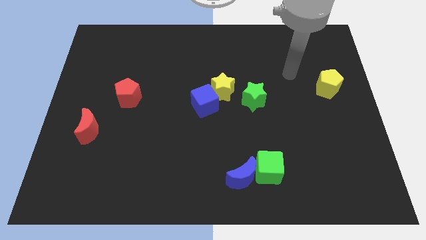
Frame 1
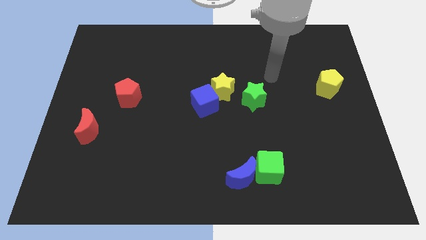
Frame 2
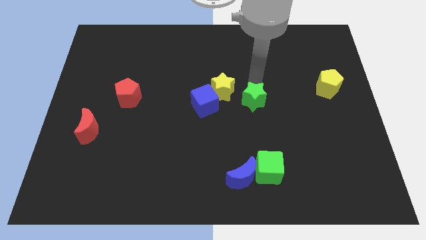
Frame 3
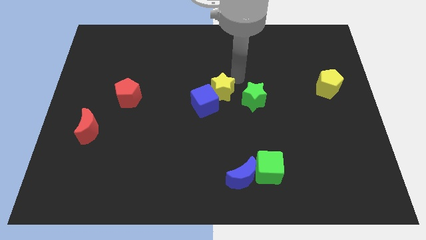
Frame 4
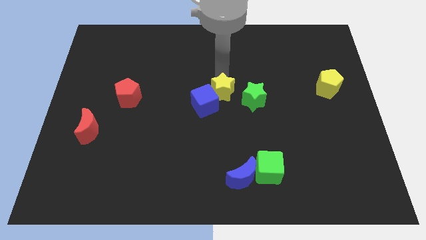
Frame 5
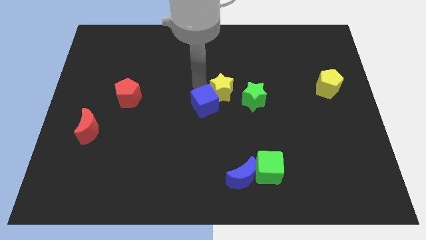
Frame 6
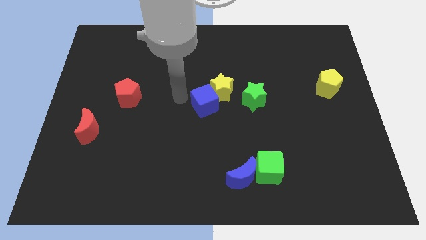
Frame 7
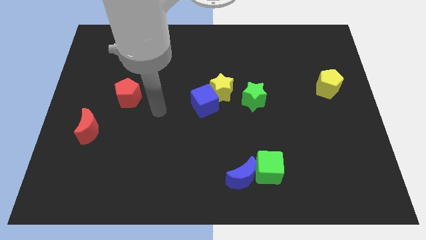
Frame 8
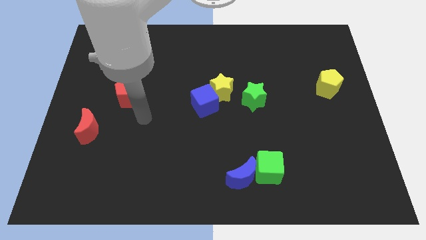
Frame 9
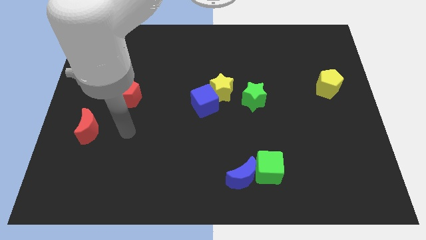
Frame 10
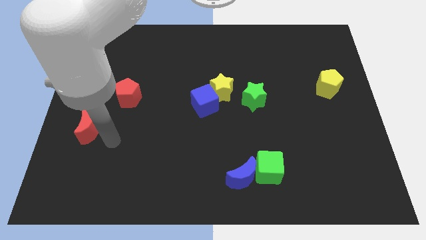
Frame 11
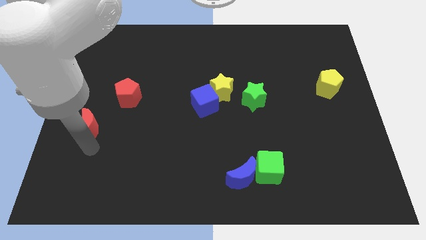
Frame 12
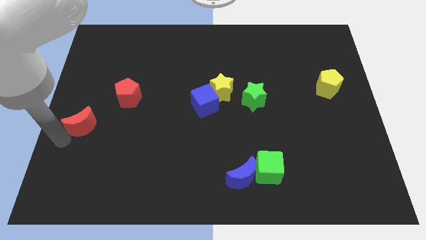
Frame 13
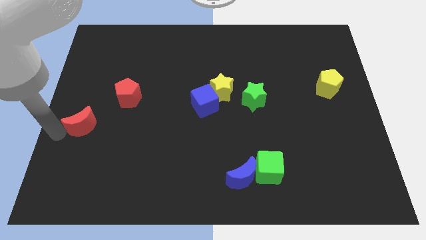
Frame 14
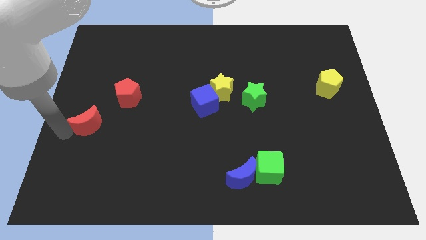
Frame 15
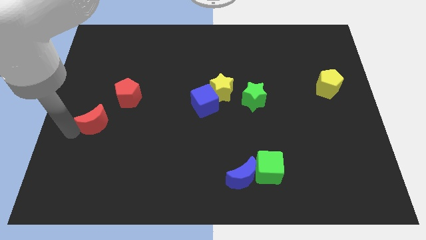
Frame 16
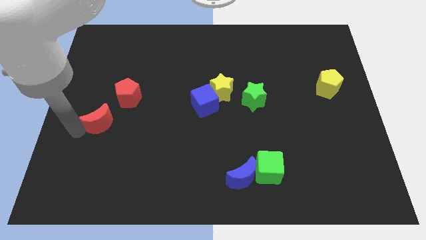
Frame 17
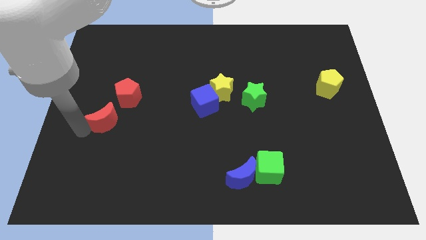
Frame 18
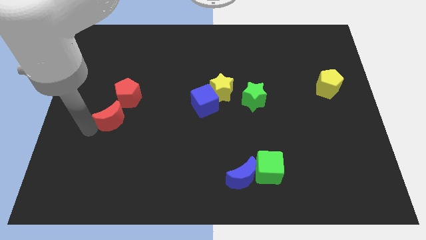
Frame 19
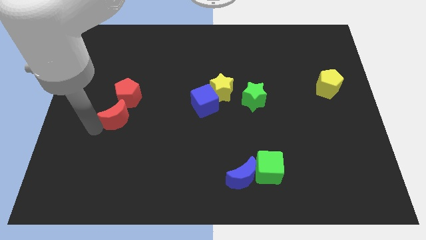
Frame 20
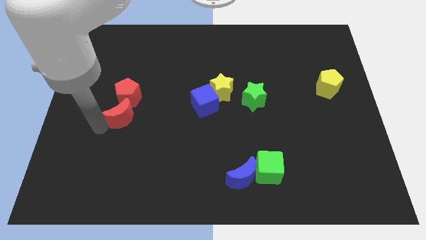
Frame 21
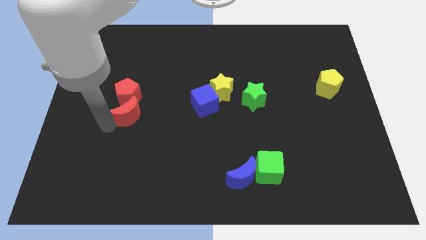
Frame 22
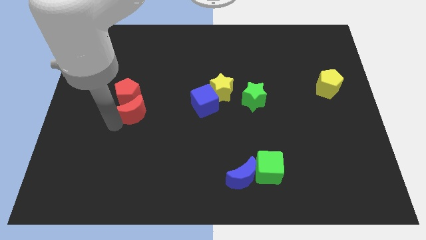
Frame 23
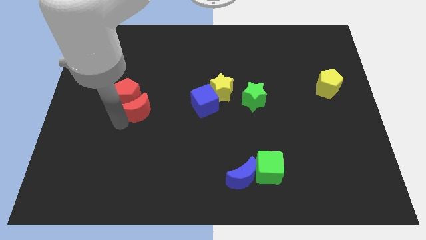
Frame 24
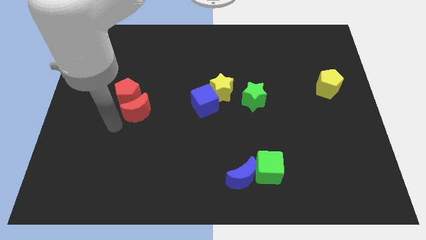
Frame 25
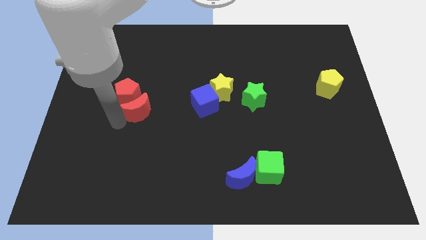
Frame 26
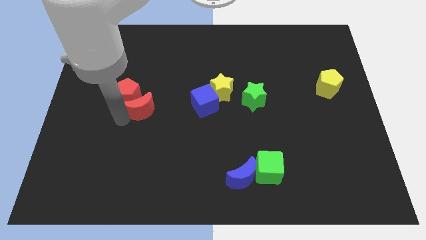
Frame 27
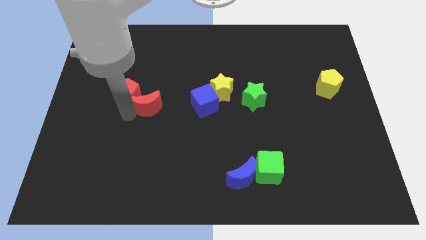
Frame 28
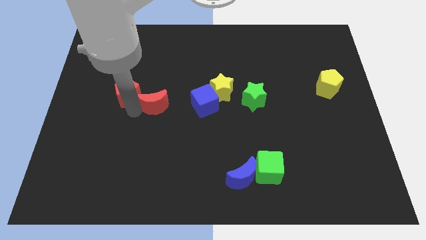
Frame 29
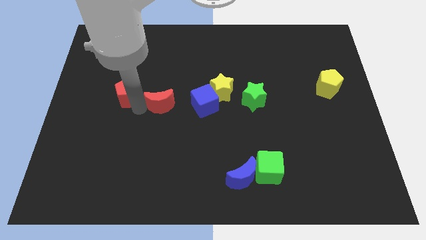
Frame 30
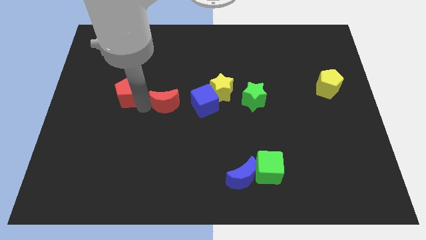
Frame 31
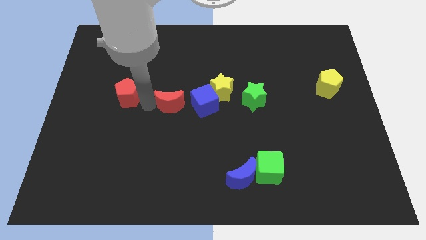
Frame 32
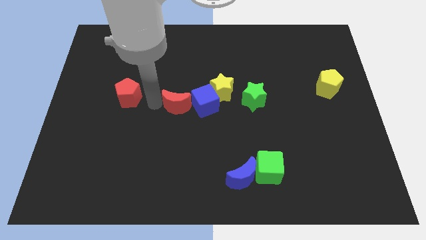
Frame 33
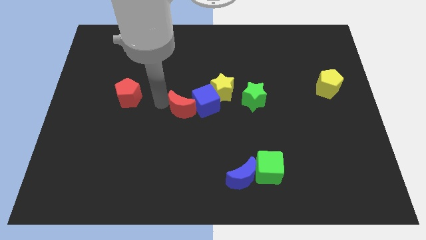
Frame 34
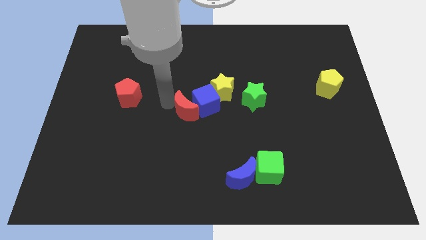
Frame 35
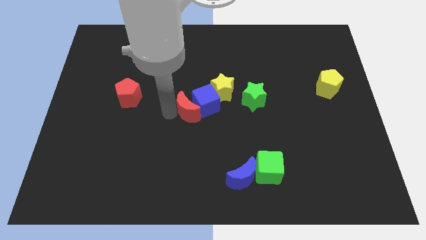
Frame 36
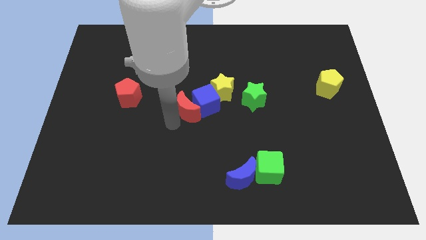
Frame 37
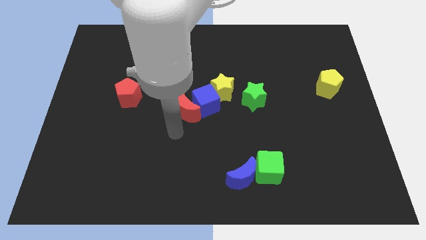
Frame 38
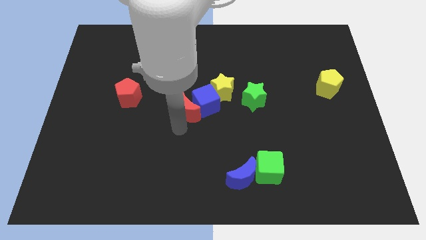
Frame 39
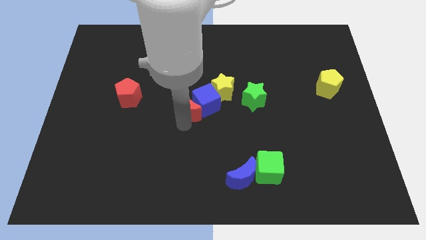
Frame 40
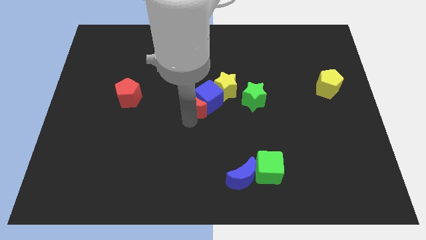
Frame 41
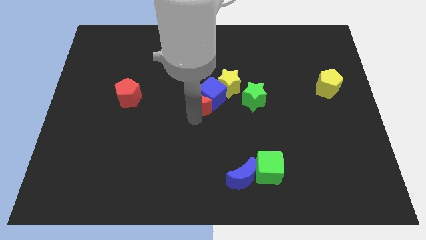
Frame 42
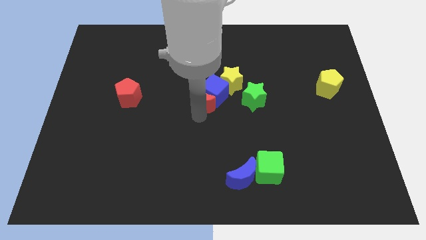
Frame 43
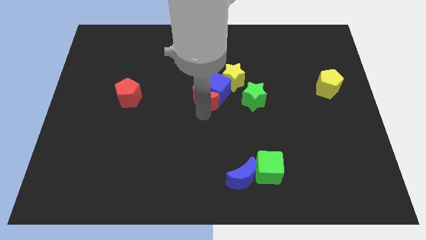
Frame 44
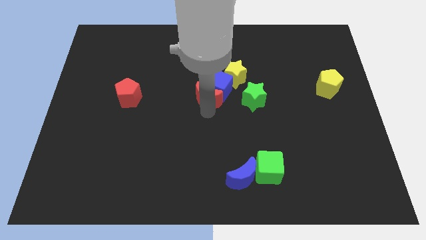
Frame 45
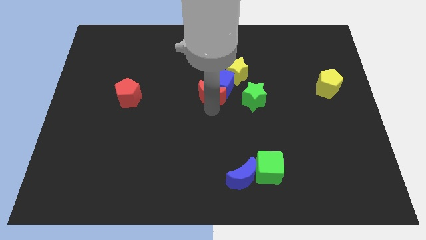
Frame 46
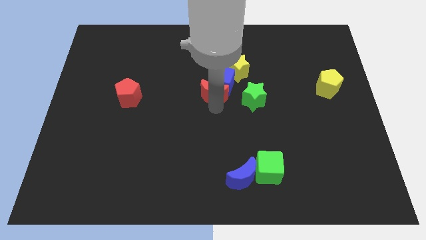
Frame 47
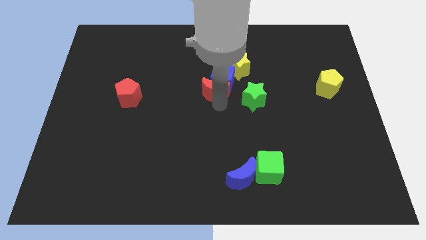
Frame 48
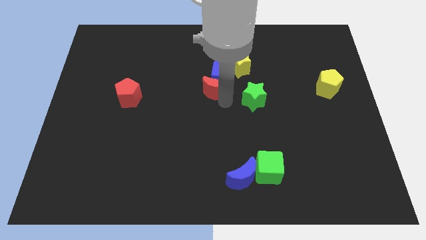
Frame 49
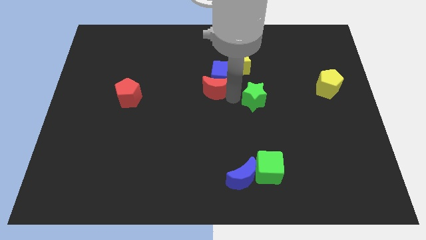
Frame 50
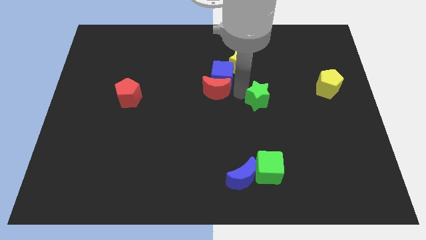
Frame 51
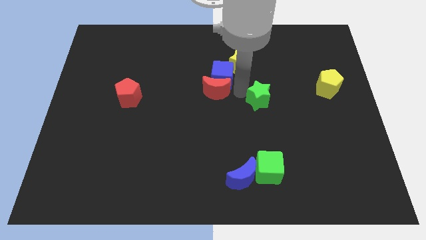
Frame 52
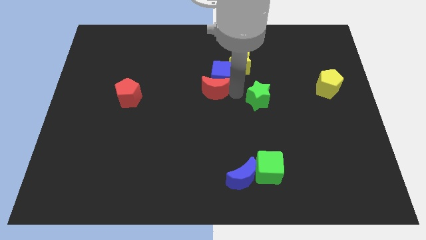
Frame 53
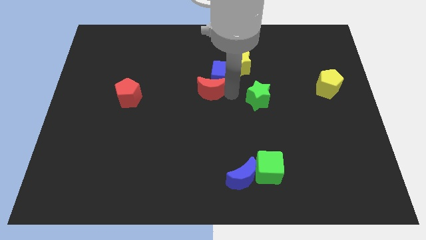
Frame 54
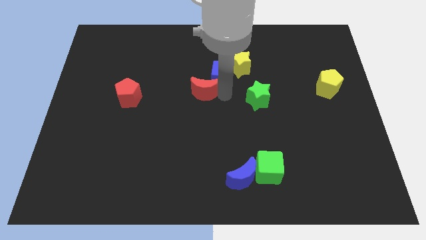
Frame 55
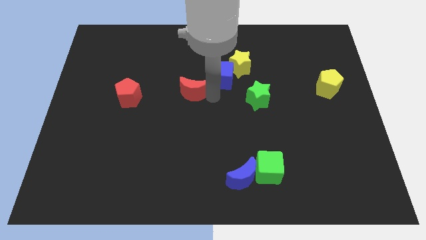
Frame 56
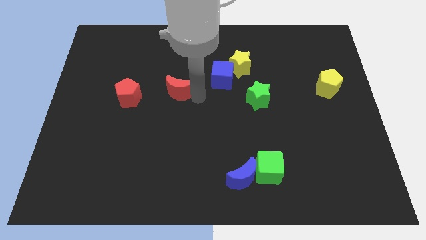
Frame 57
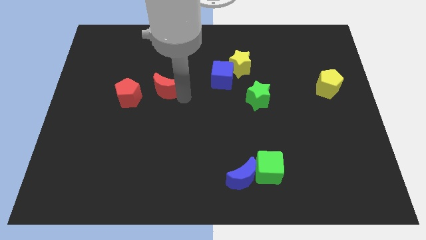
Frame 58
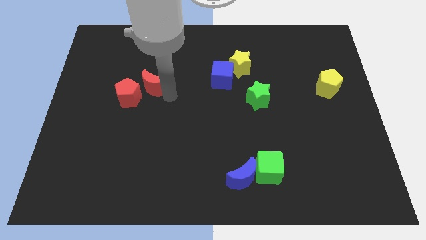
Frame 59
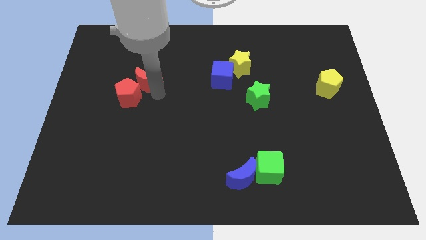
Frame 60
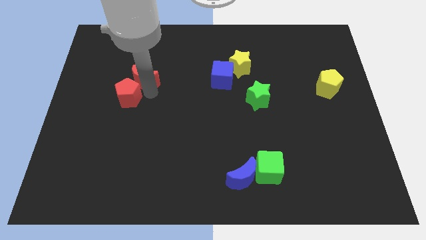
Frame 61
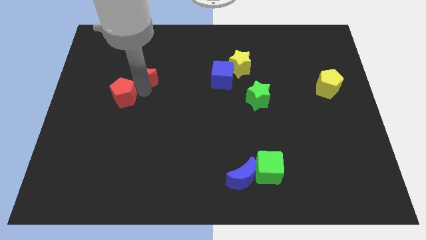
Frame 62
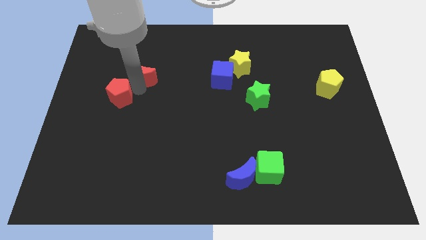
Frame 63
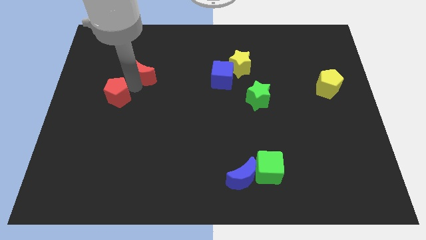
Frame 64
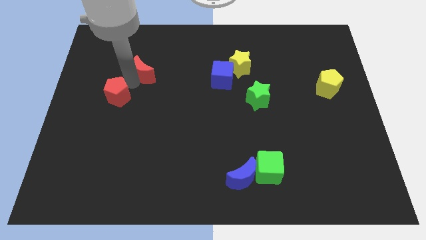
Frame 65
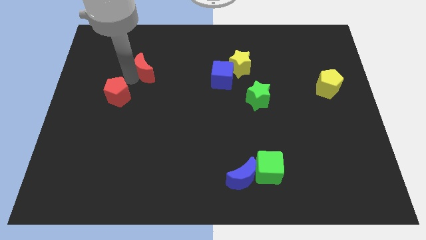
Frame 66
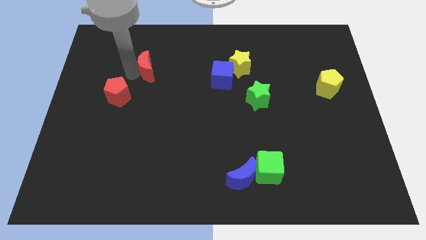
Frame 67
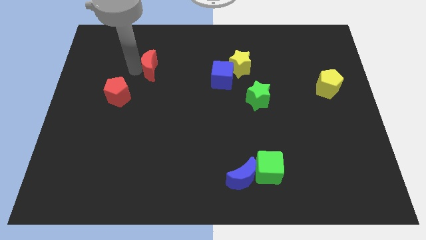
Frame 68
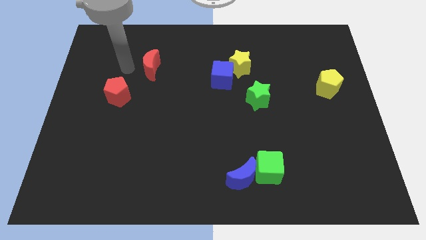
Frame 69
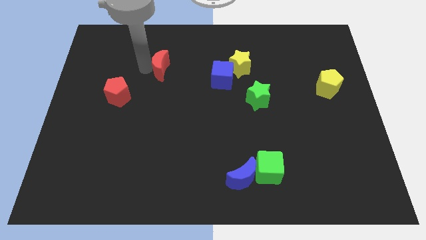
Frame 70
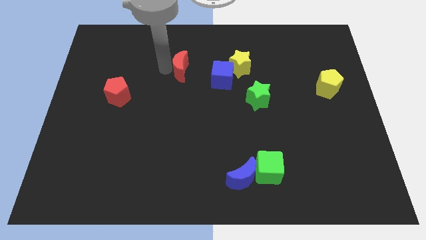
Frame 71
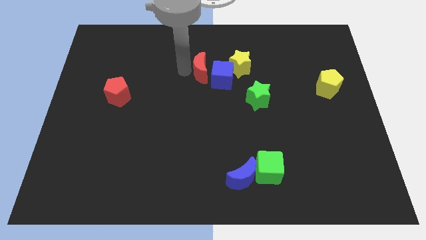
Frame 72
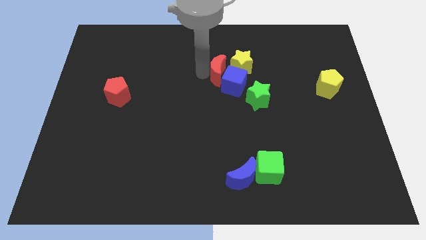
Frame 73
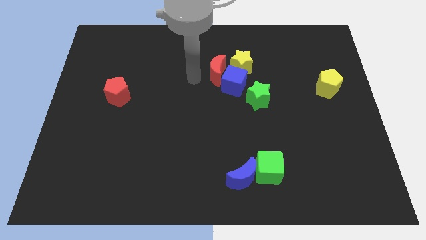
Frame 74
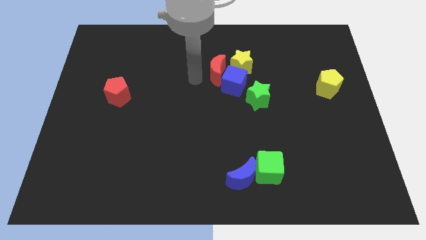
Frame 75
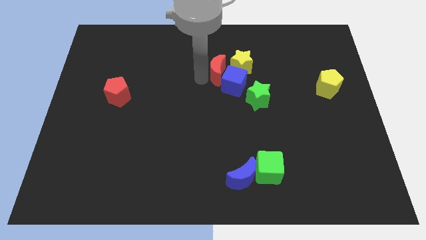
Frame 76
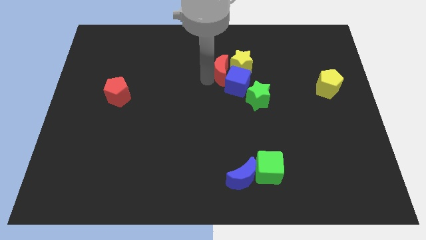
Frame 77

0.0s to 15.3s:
move the red moon towards the yellow star
